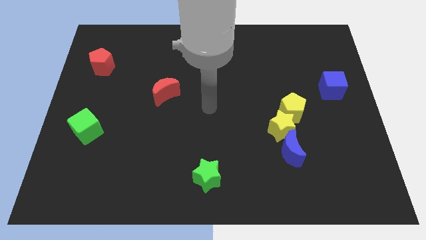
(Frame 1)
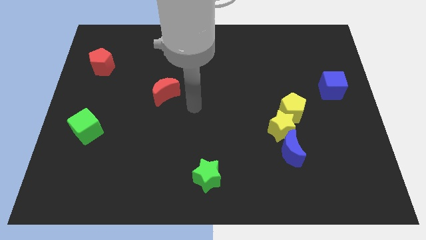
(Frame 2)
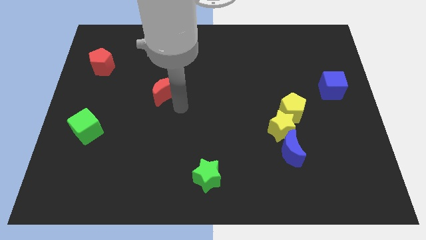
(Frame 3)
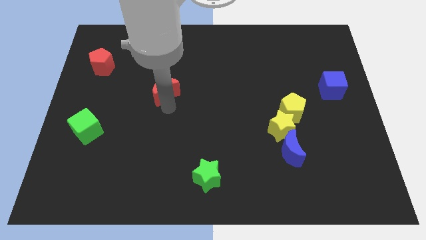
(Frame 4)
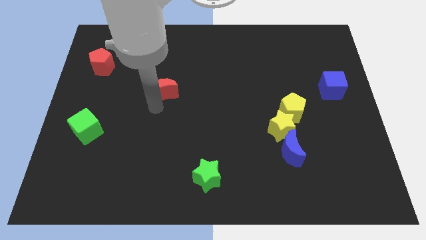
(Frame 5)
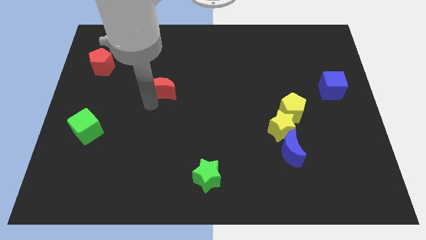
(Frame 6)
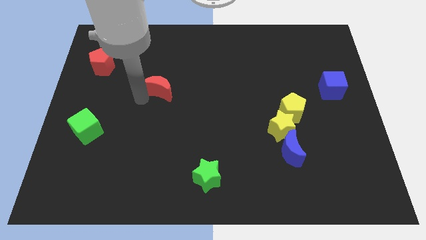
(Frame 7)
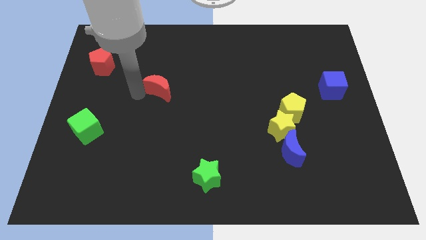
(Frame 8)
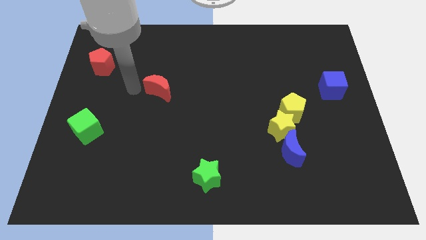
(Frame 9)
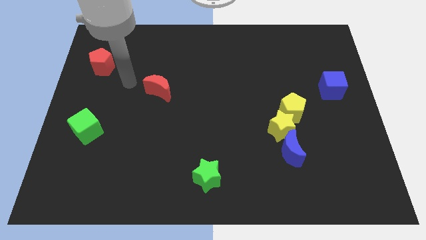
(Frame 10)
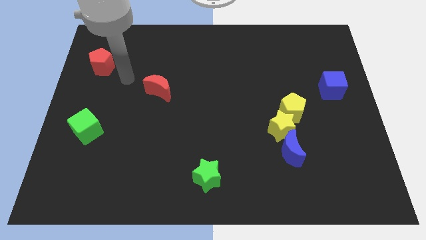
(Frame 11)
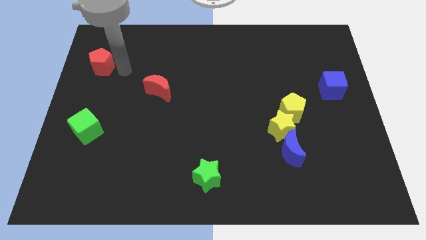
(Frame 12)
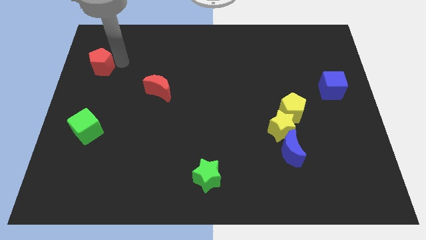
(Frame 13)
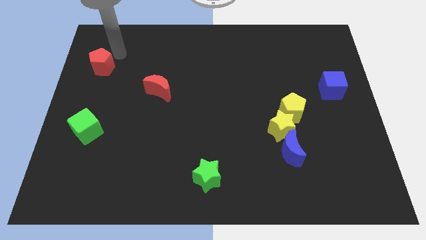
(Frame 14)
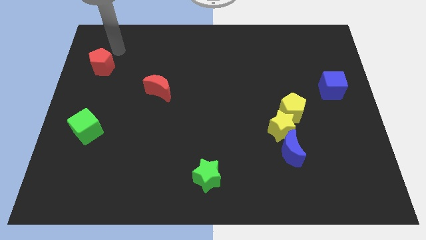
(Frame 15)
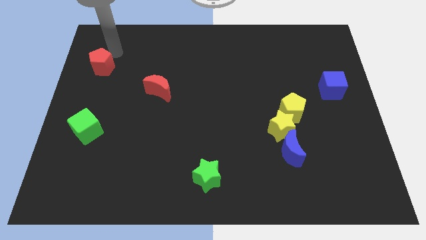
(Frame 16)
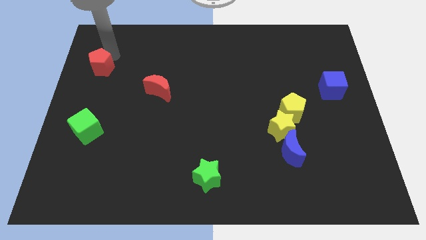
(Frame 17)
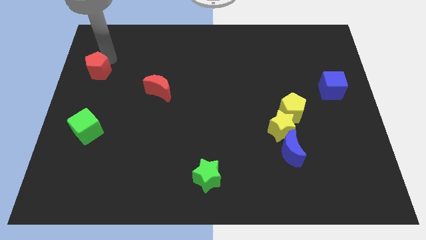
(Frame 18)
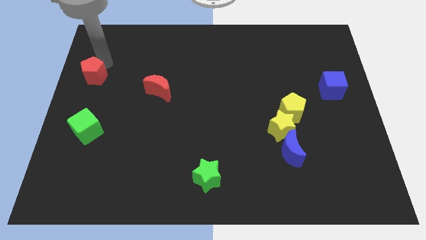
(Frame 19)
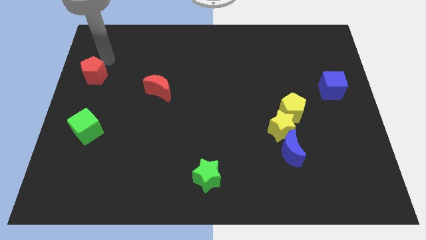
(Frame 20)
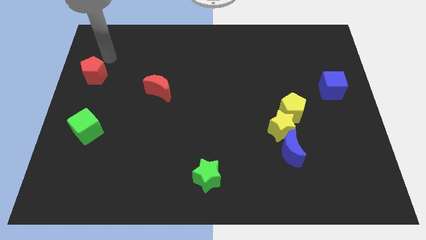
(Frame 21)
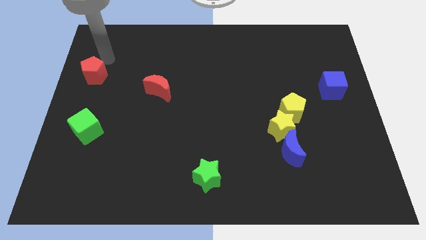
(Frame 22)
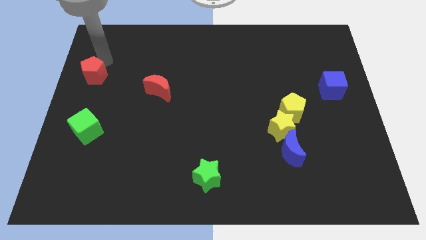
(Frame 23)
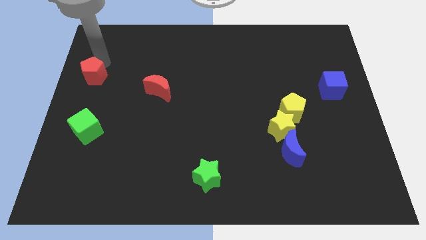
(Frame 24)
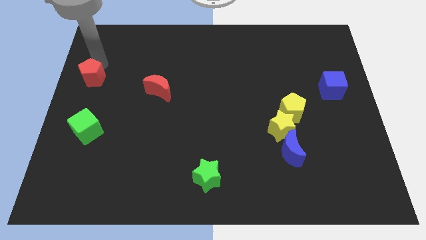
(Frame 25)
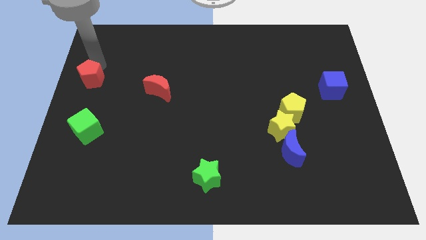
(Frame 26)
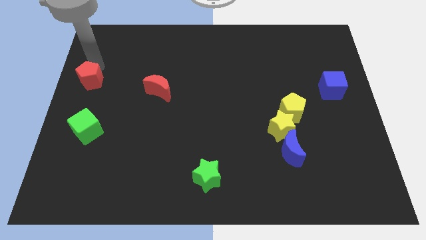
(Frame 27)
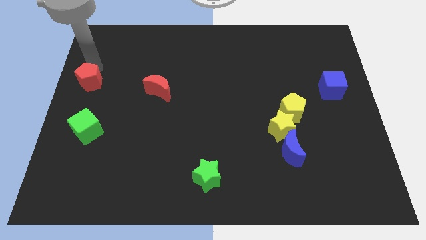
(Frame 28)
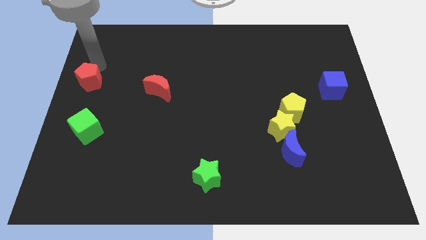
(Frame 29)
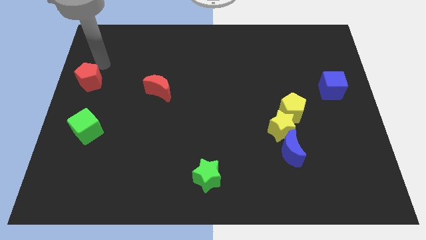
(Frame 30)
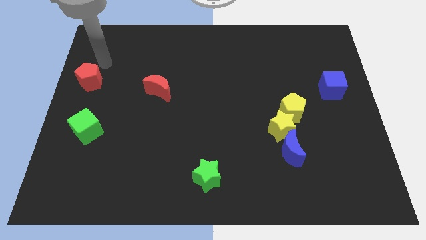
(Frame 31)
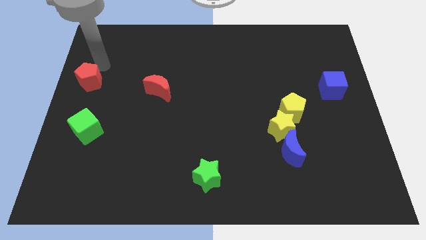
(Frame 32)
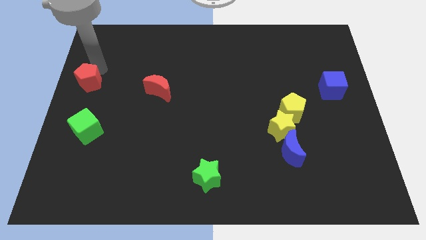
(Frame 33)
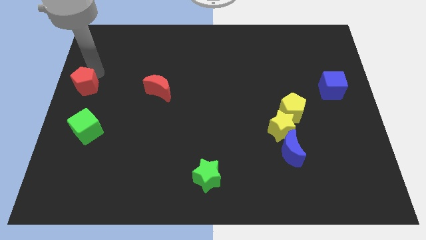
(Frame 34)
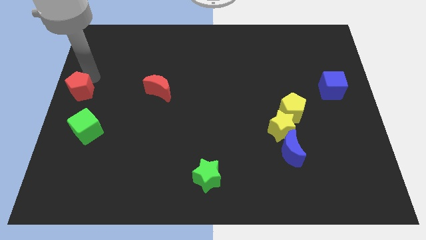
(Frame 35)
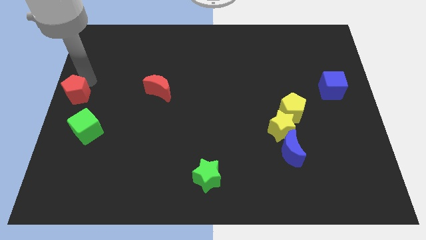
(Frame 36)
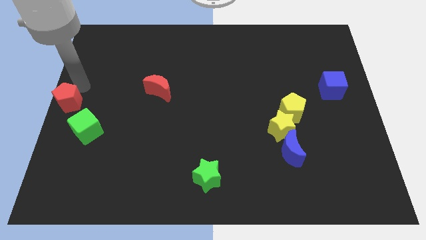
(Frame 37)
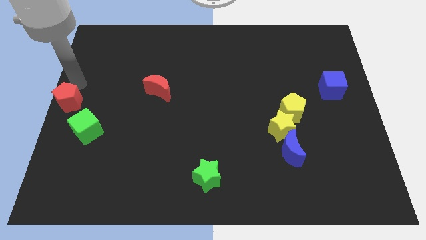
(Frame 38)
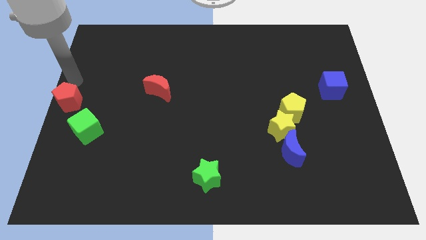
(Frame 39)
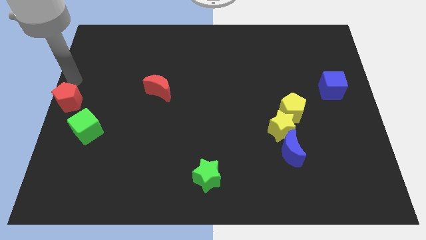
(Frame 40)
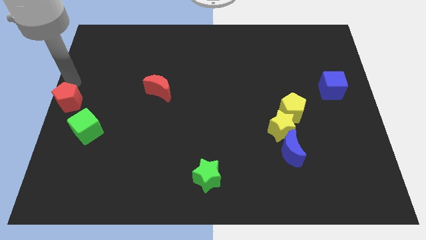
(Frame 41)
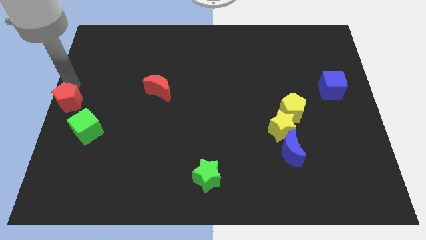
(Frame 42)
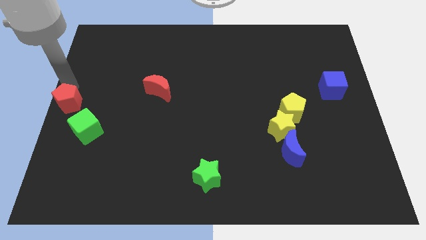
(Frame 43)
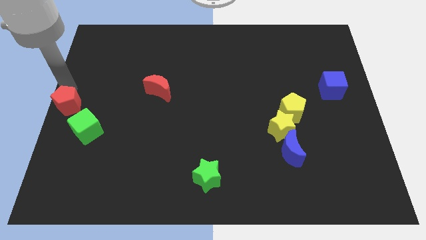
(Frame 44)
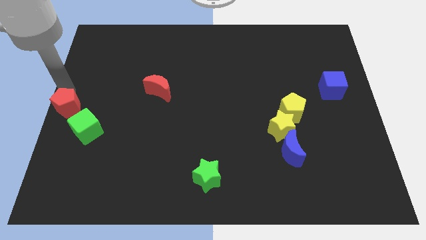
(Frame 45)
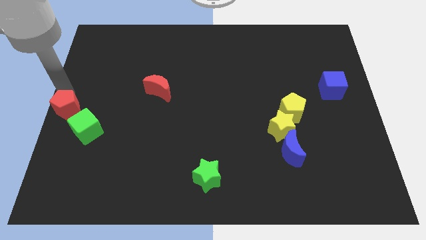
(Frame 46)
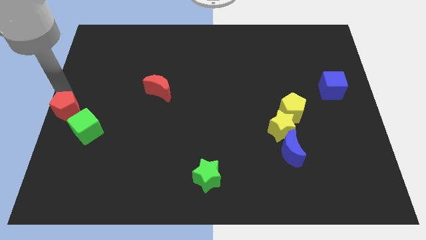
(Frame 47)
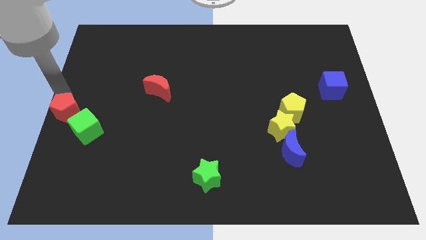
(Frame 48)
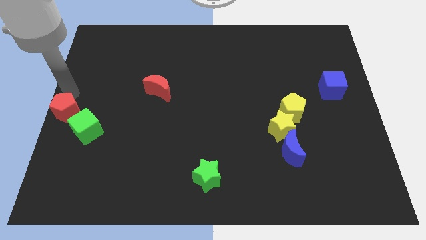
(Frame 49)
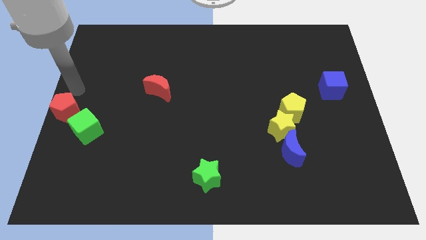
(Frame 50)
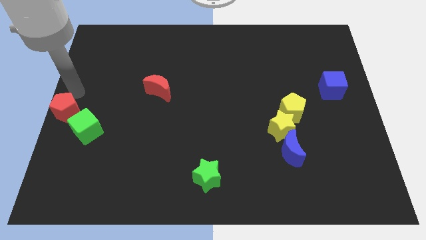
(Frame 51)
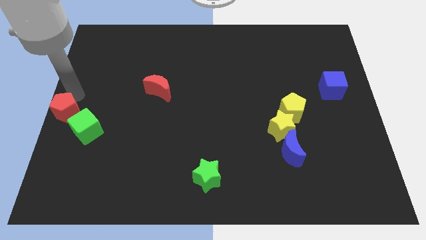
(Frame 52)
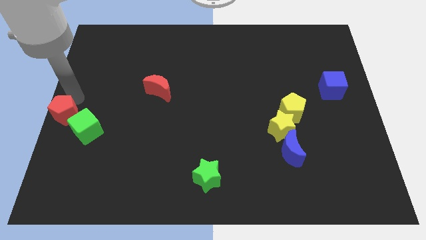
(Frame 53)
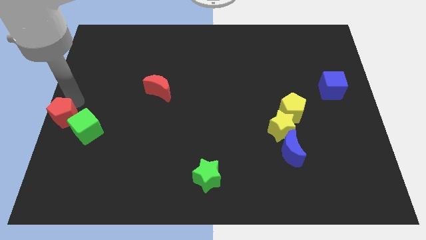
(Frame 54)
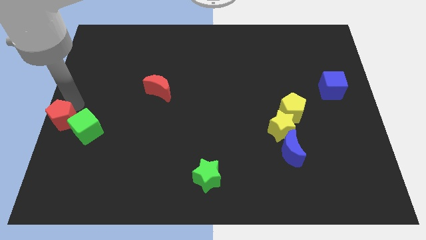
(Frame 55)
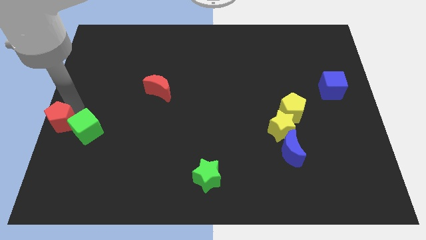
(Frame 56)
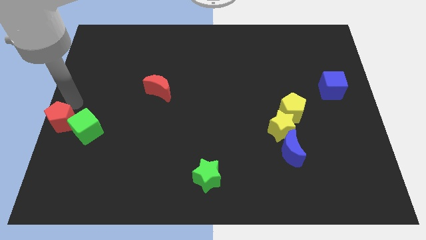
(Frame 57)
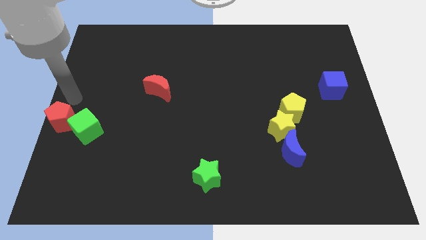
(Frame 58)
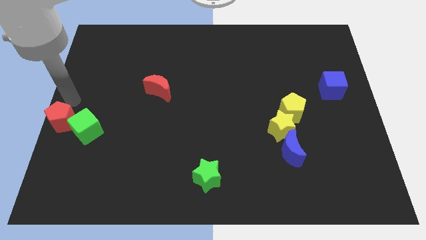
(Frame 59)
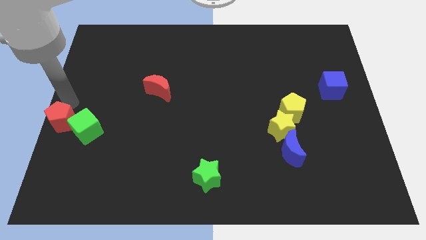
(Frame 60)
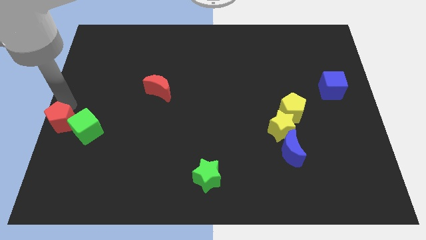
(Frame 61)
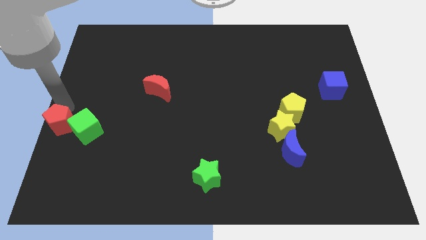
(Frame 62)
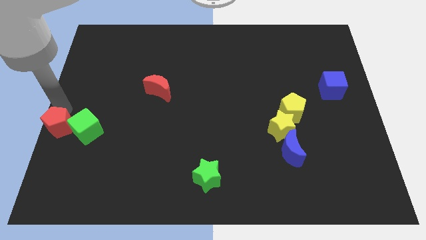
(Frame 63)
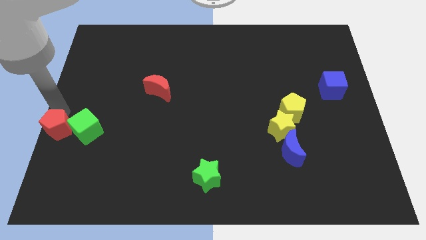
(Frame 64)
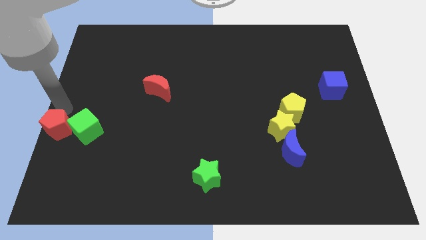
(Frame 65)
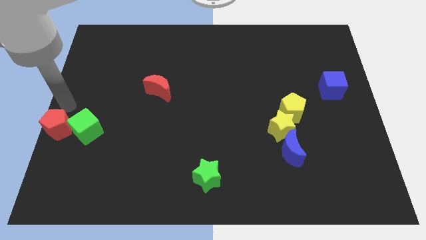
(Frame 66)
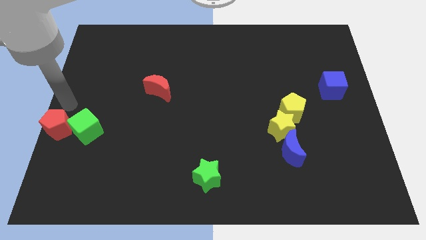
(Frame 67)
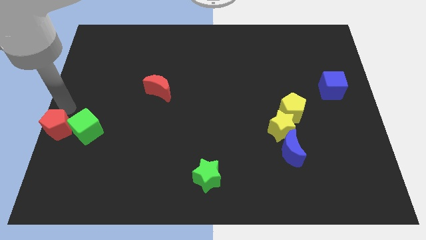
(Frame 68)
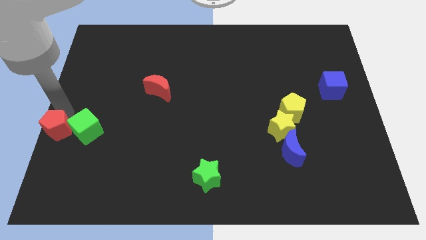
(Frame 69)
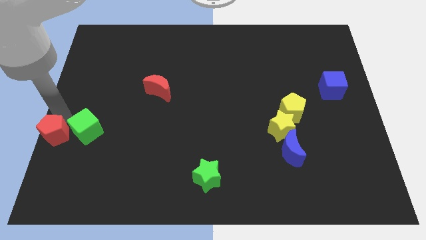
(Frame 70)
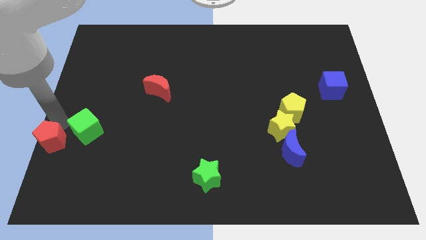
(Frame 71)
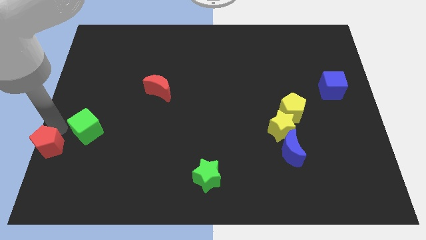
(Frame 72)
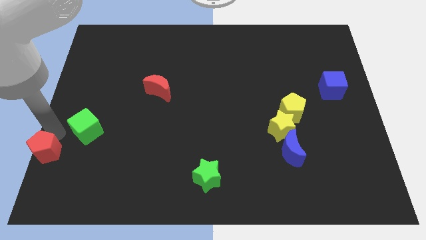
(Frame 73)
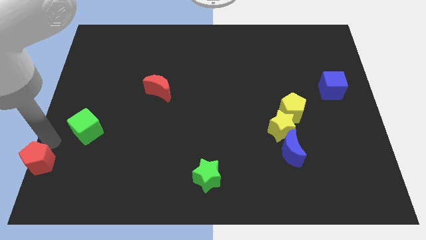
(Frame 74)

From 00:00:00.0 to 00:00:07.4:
push the red pentagon to the lower left corner
